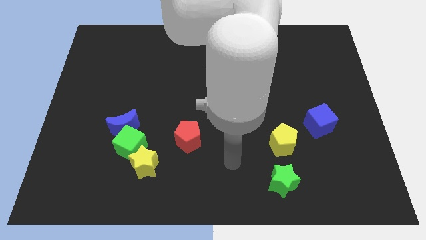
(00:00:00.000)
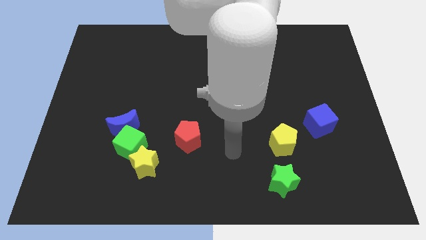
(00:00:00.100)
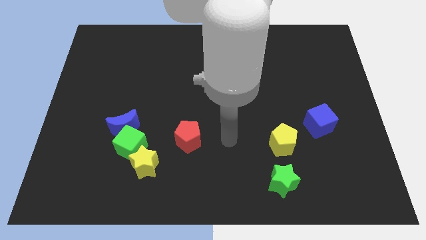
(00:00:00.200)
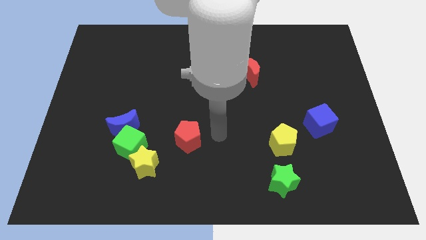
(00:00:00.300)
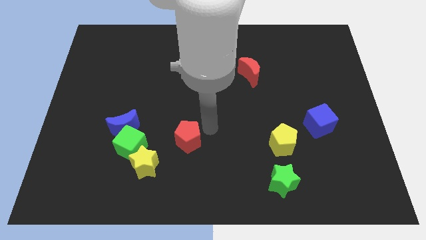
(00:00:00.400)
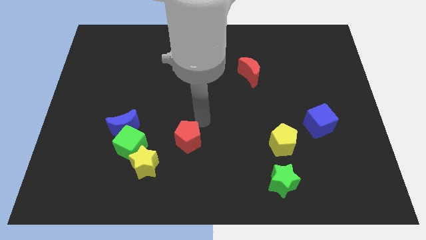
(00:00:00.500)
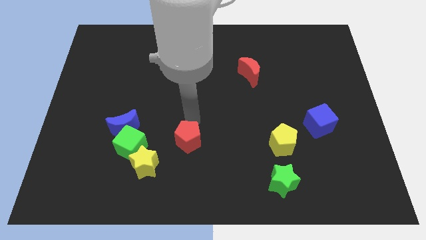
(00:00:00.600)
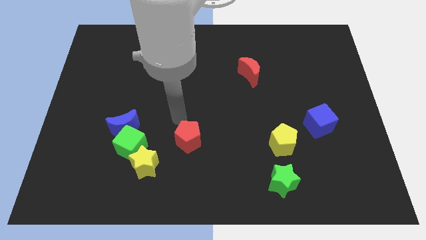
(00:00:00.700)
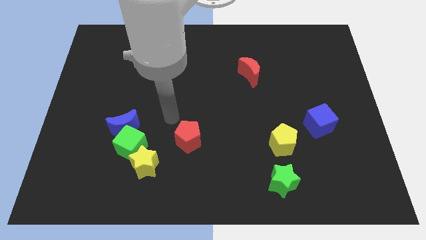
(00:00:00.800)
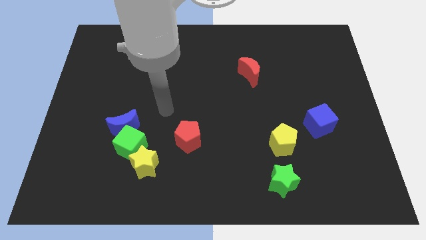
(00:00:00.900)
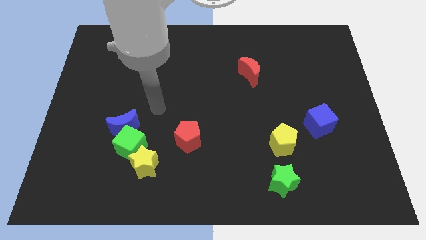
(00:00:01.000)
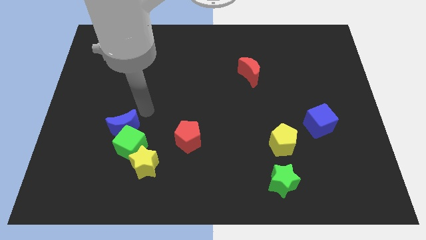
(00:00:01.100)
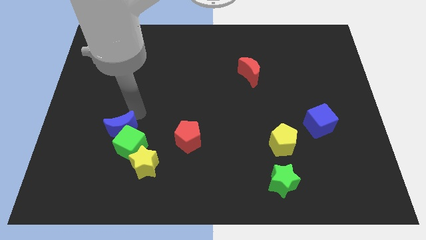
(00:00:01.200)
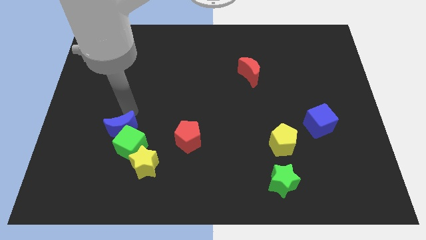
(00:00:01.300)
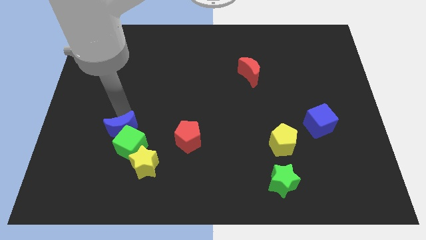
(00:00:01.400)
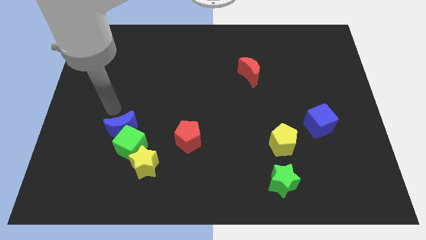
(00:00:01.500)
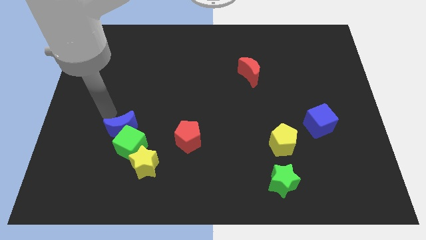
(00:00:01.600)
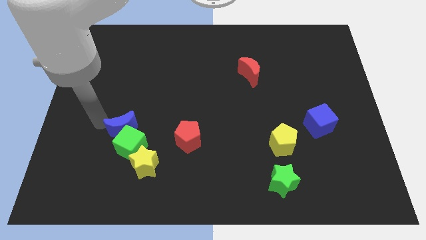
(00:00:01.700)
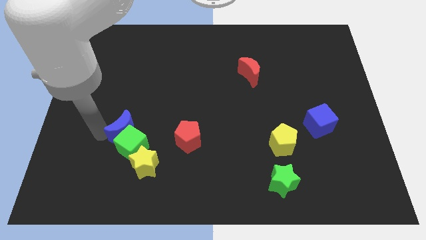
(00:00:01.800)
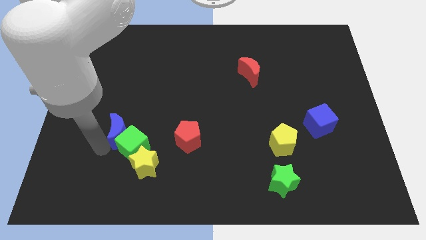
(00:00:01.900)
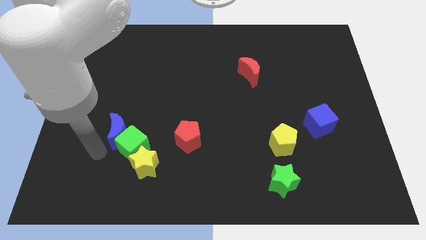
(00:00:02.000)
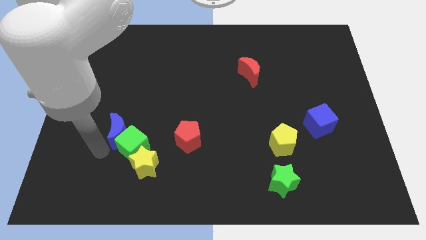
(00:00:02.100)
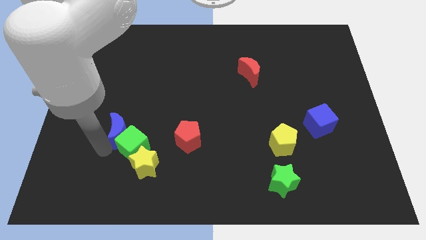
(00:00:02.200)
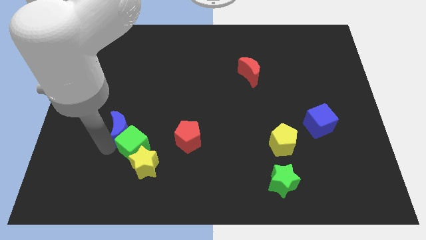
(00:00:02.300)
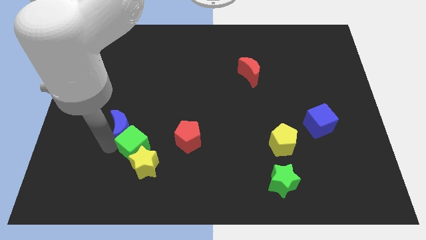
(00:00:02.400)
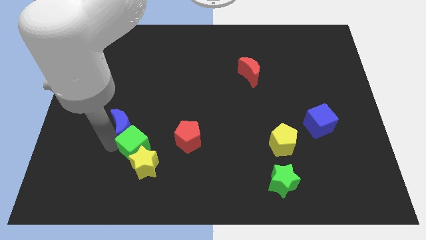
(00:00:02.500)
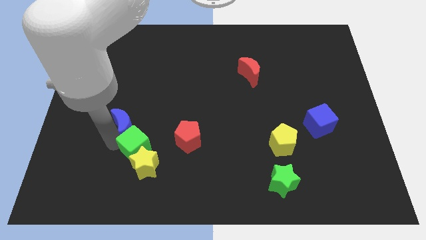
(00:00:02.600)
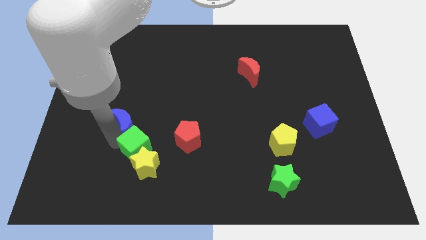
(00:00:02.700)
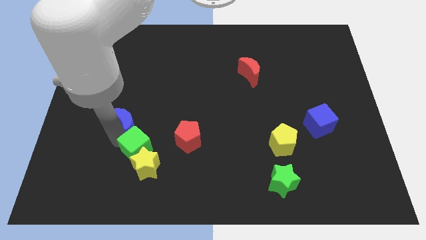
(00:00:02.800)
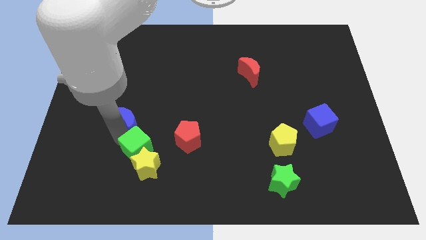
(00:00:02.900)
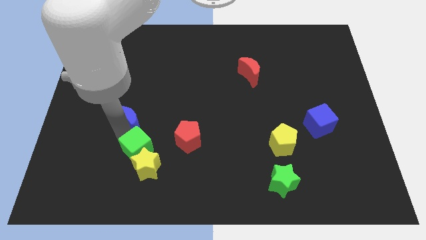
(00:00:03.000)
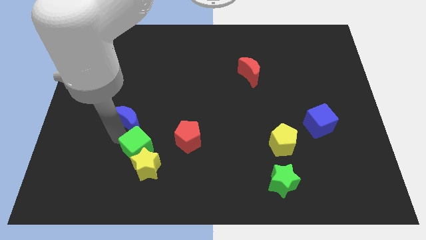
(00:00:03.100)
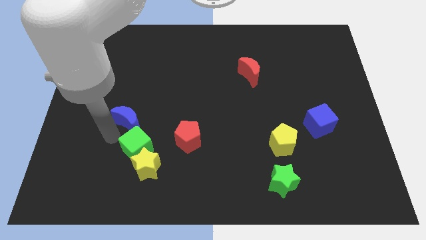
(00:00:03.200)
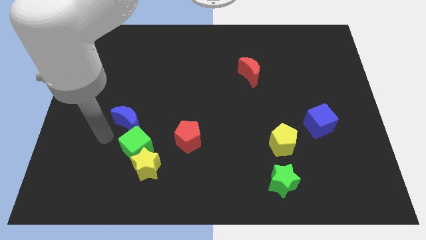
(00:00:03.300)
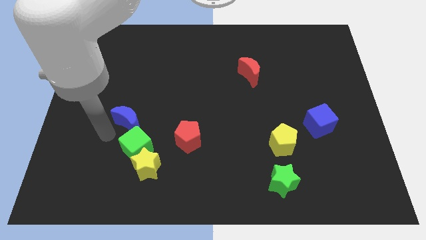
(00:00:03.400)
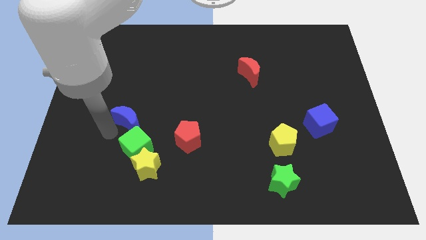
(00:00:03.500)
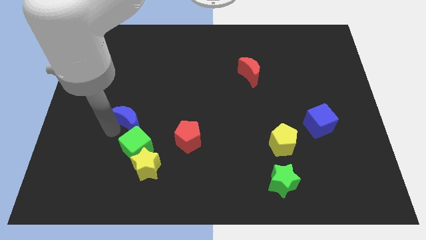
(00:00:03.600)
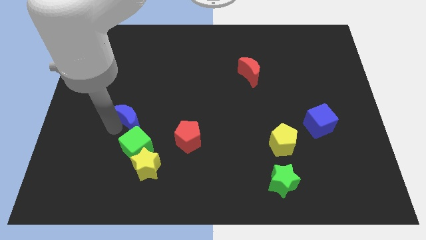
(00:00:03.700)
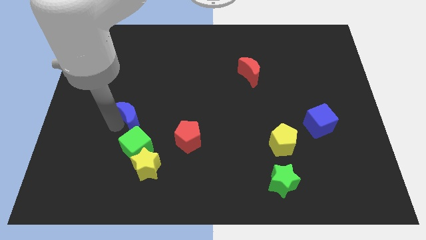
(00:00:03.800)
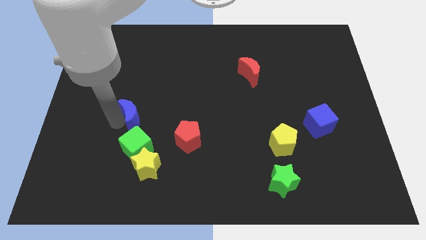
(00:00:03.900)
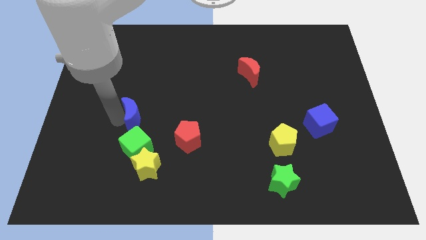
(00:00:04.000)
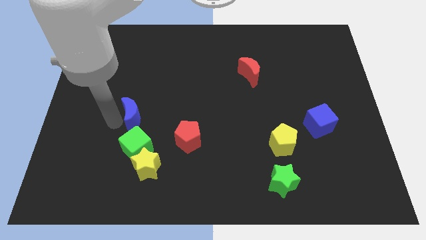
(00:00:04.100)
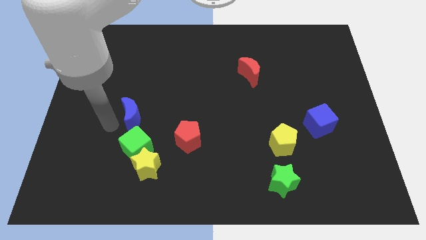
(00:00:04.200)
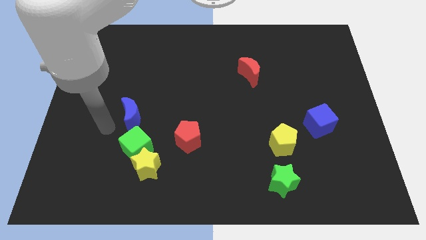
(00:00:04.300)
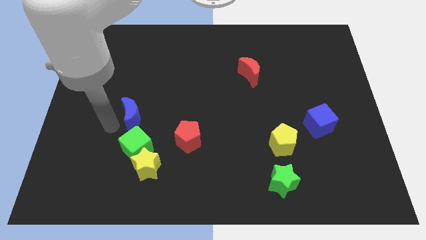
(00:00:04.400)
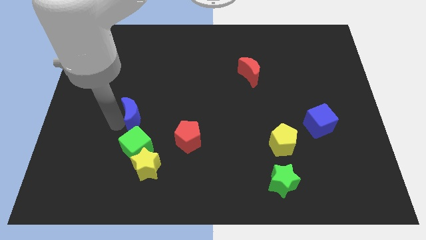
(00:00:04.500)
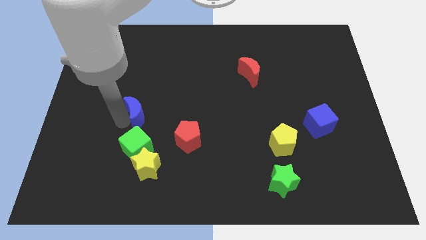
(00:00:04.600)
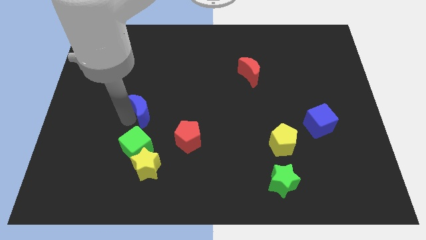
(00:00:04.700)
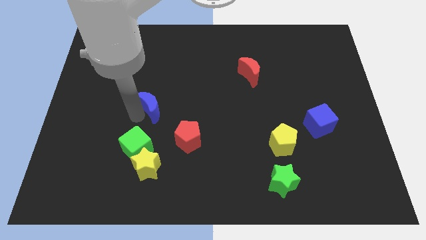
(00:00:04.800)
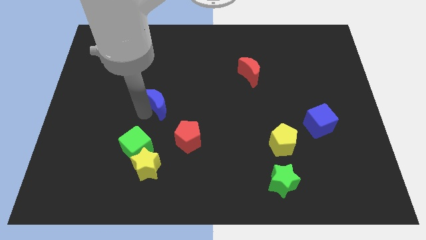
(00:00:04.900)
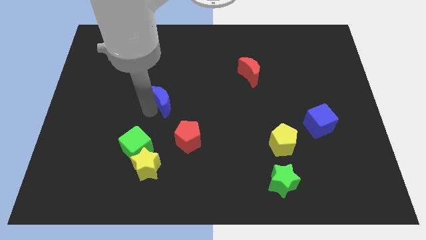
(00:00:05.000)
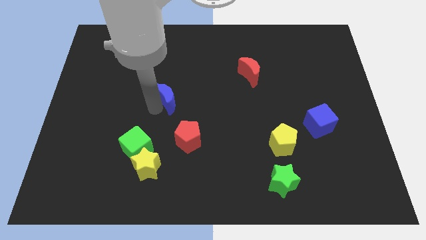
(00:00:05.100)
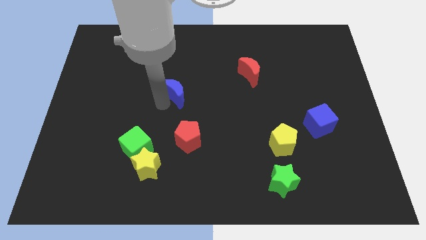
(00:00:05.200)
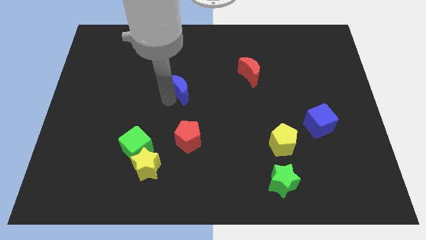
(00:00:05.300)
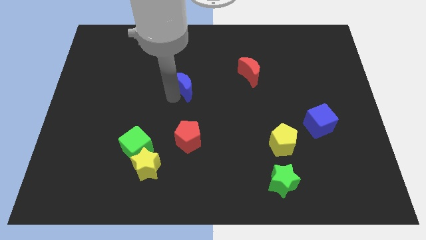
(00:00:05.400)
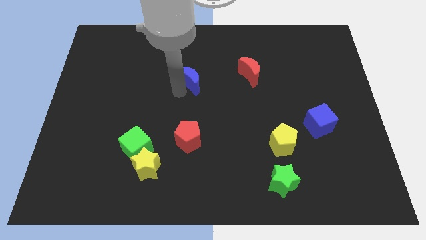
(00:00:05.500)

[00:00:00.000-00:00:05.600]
push the blue moon up and right

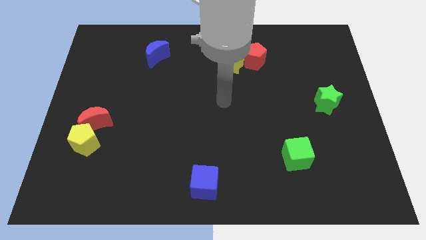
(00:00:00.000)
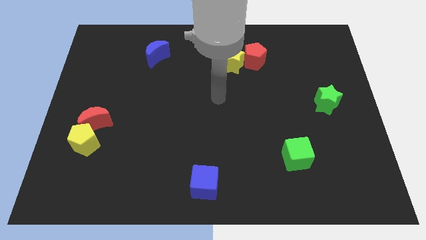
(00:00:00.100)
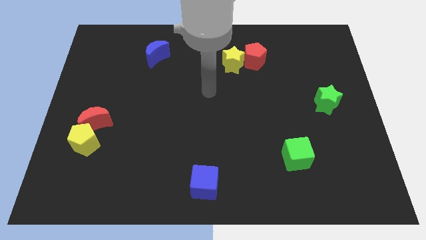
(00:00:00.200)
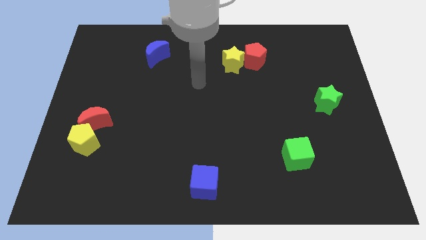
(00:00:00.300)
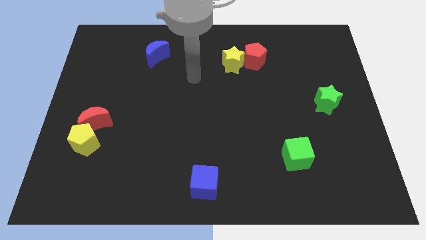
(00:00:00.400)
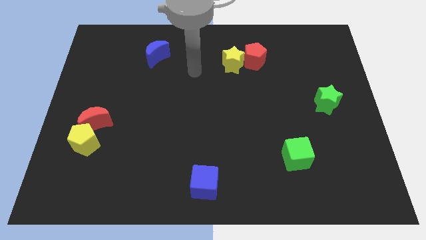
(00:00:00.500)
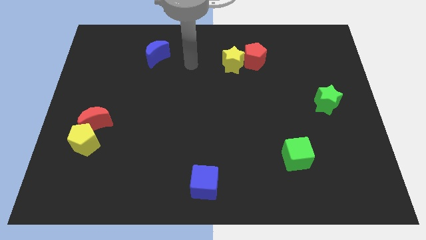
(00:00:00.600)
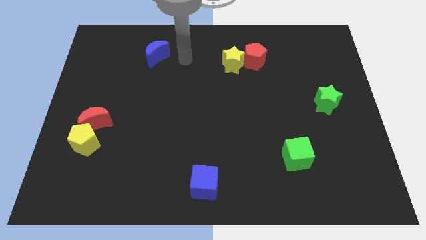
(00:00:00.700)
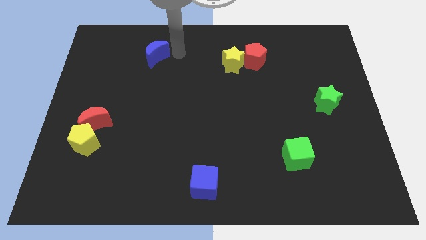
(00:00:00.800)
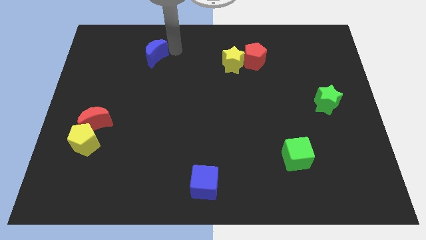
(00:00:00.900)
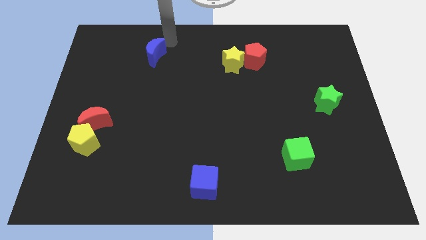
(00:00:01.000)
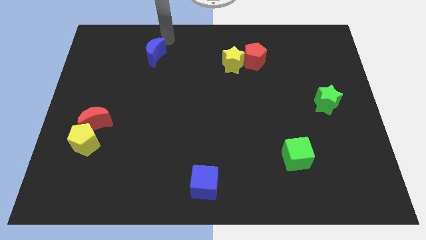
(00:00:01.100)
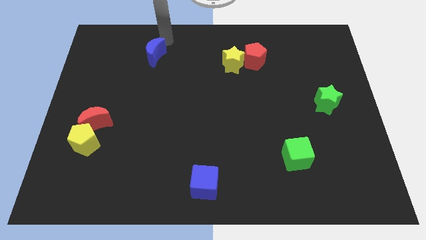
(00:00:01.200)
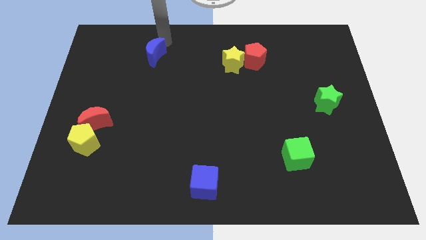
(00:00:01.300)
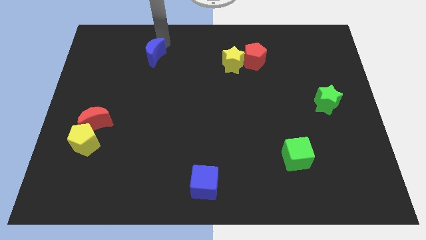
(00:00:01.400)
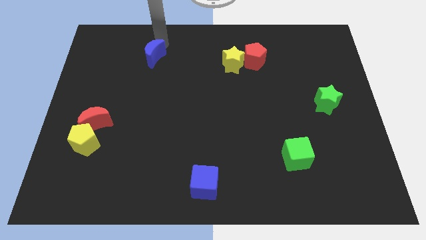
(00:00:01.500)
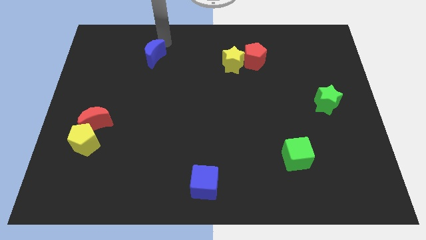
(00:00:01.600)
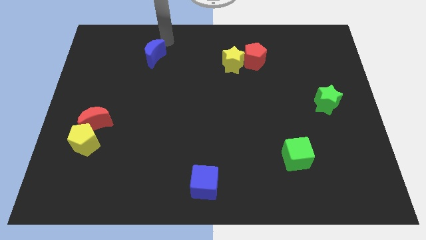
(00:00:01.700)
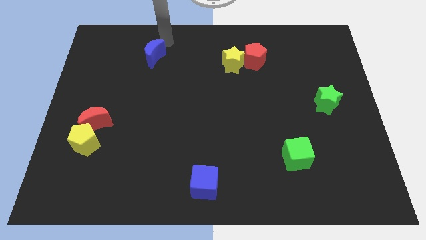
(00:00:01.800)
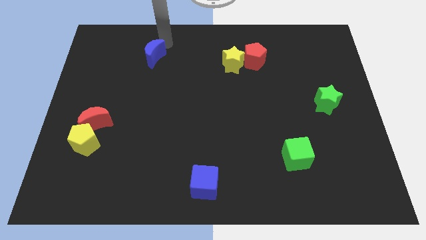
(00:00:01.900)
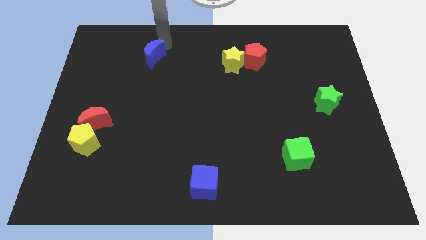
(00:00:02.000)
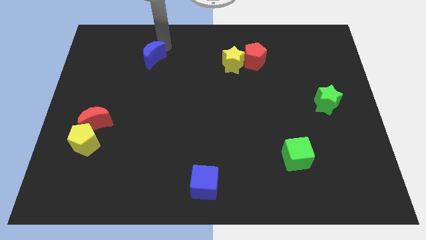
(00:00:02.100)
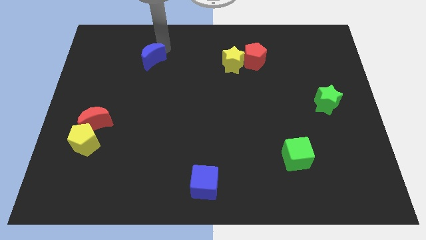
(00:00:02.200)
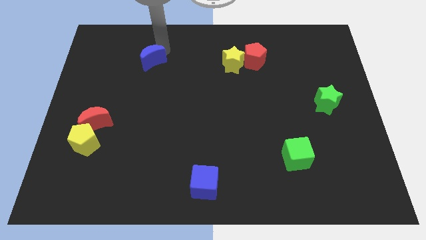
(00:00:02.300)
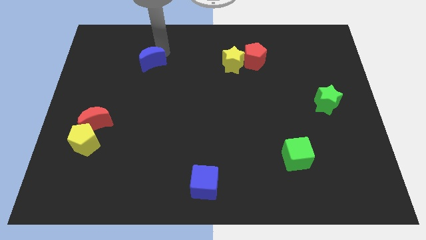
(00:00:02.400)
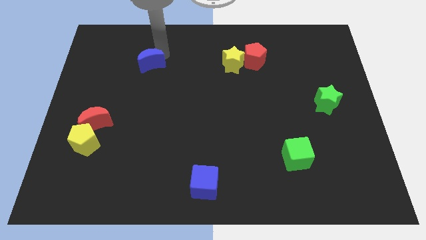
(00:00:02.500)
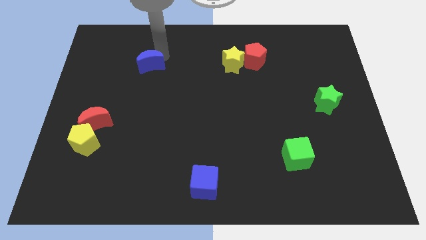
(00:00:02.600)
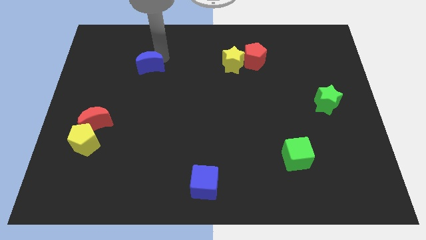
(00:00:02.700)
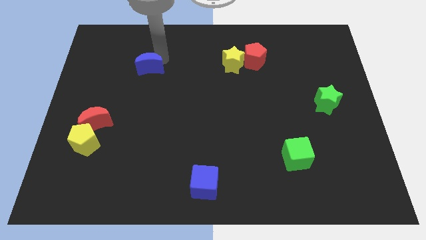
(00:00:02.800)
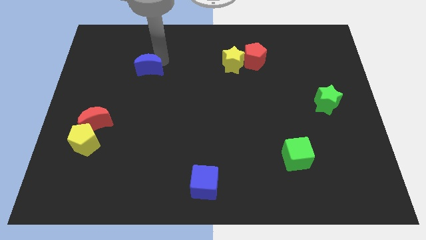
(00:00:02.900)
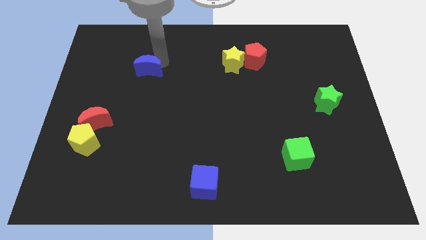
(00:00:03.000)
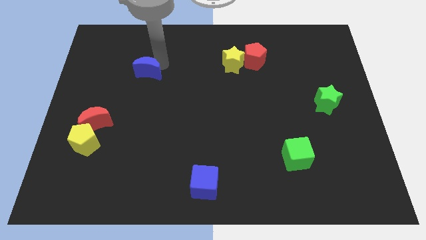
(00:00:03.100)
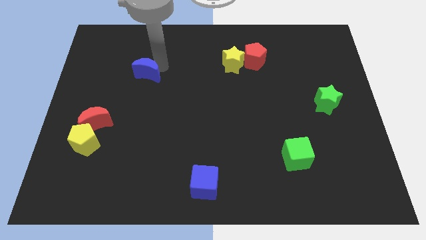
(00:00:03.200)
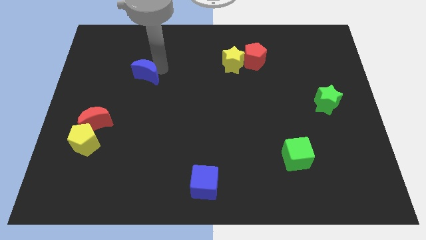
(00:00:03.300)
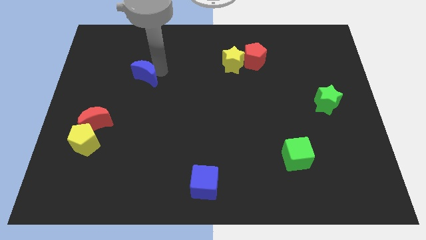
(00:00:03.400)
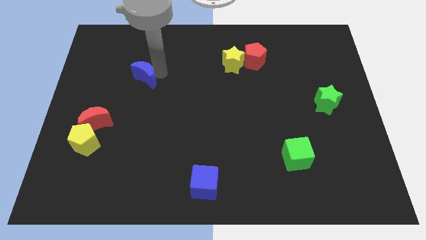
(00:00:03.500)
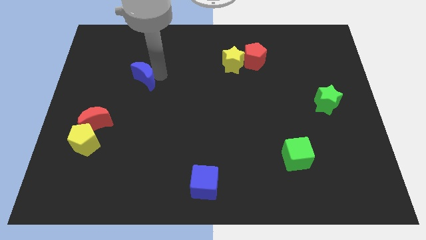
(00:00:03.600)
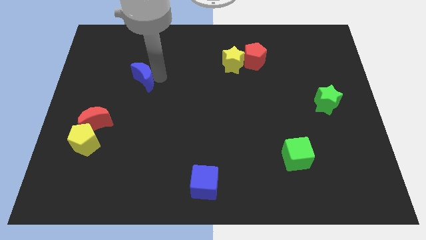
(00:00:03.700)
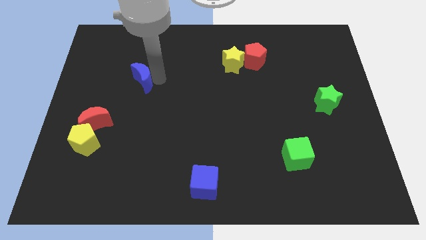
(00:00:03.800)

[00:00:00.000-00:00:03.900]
slightly push the blue moon down and then to the left
